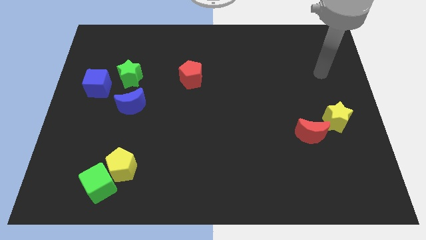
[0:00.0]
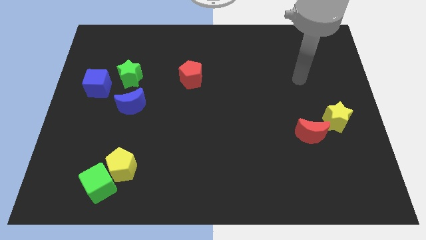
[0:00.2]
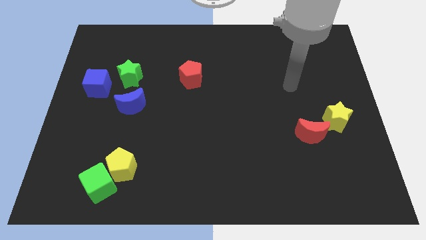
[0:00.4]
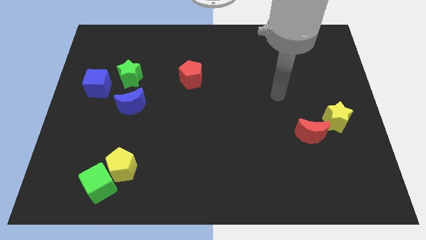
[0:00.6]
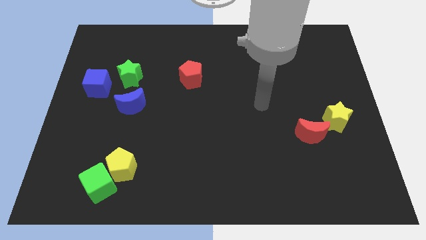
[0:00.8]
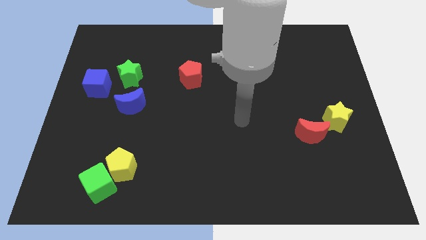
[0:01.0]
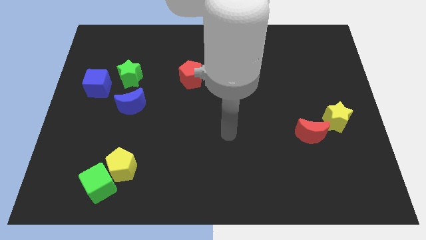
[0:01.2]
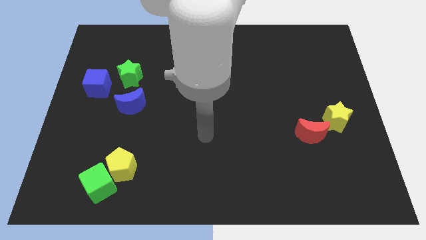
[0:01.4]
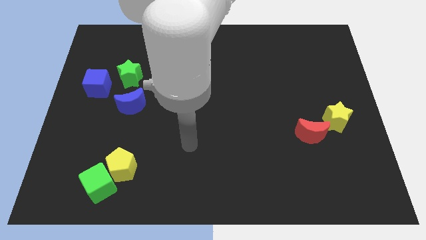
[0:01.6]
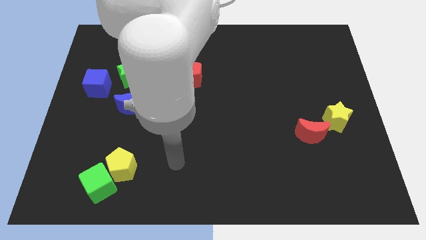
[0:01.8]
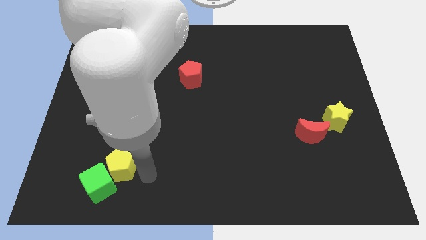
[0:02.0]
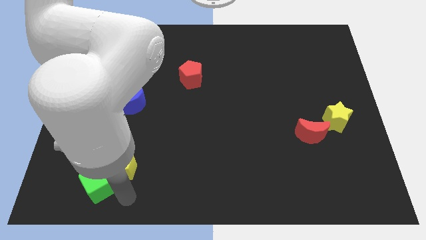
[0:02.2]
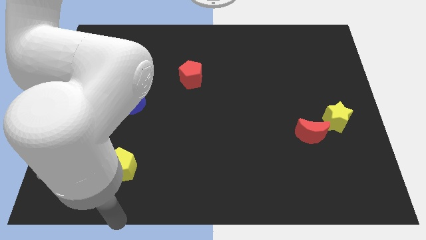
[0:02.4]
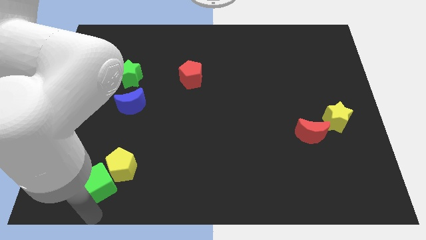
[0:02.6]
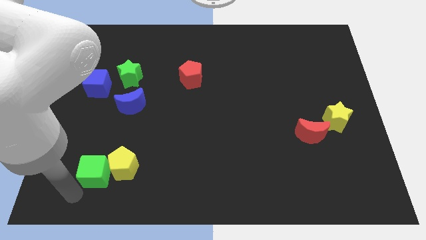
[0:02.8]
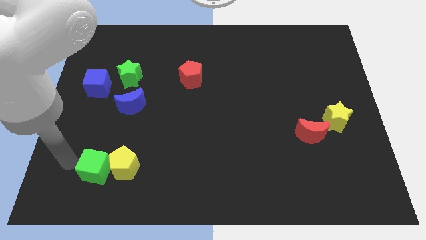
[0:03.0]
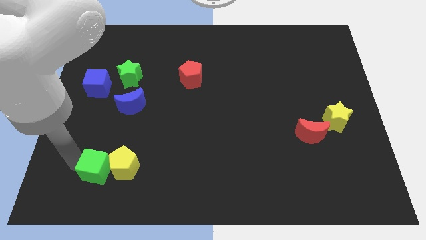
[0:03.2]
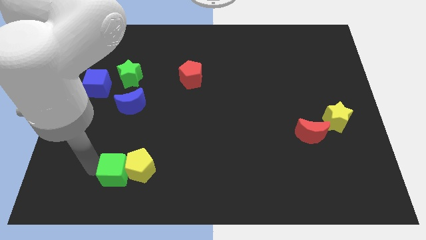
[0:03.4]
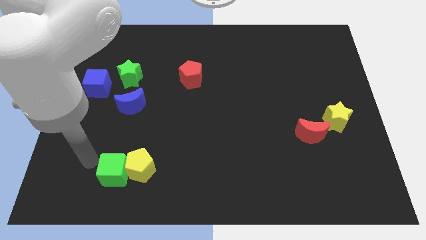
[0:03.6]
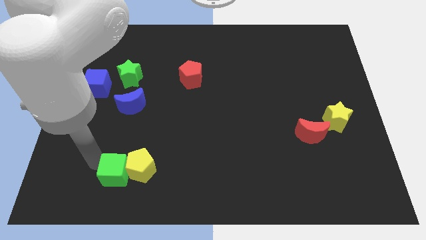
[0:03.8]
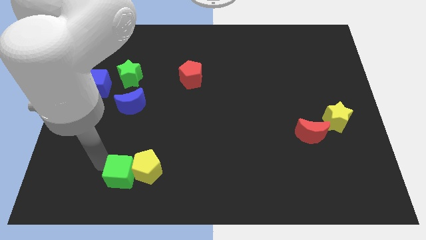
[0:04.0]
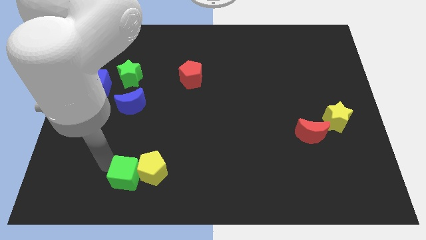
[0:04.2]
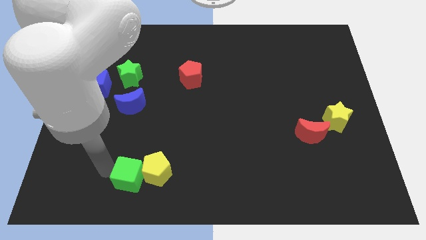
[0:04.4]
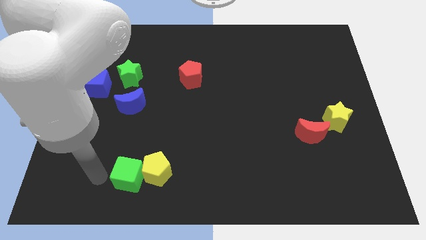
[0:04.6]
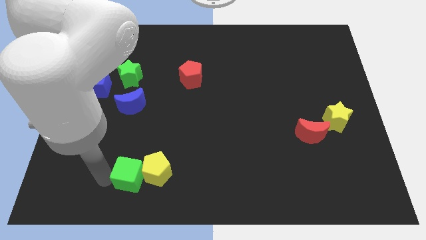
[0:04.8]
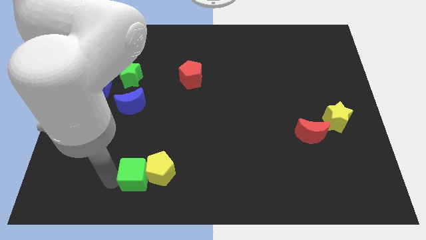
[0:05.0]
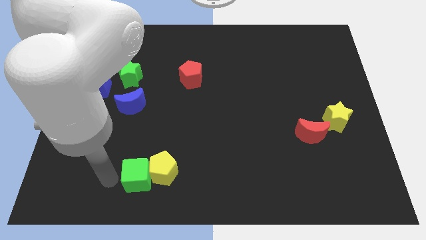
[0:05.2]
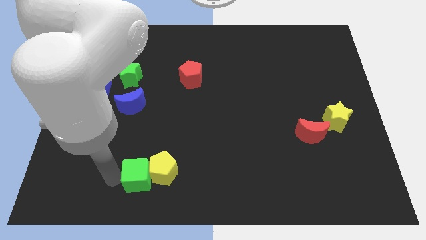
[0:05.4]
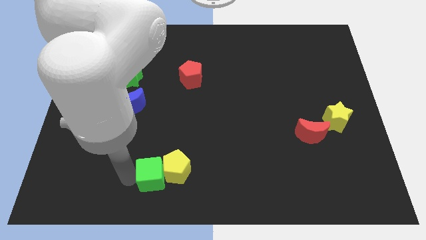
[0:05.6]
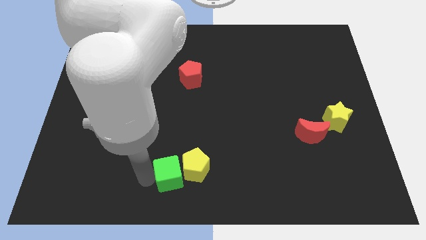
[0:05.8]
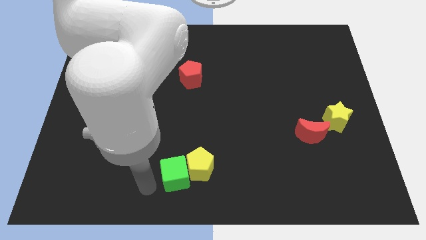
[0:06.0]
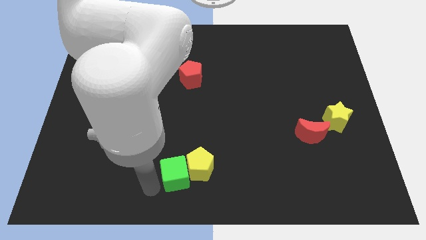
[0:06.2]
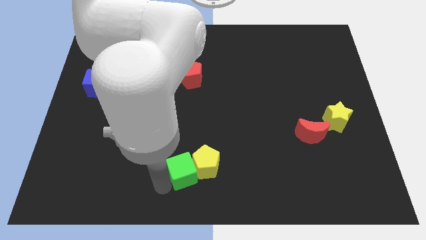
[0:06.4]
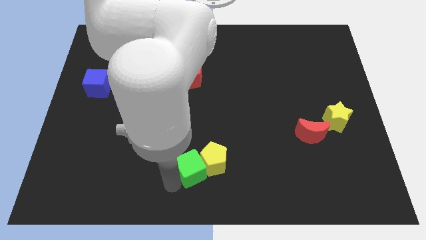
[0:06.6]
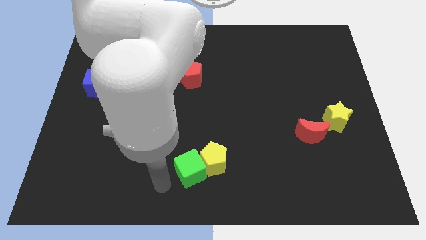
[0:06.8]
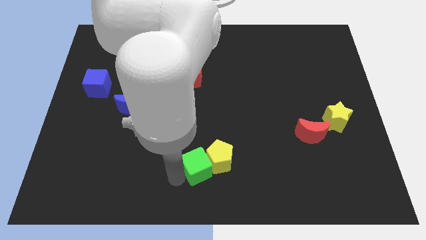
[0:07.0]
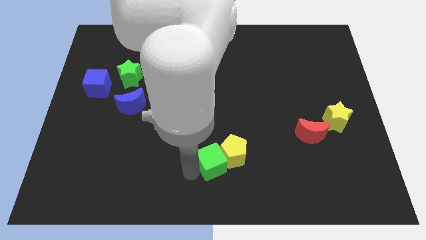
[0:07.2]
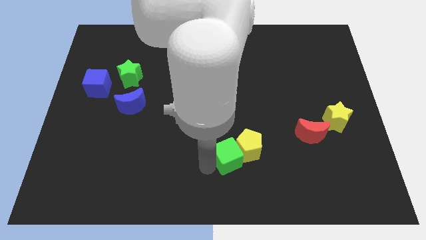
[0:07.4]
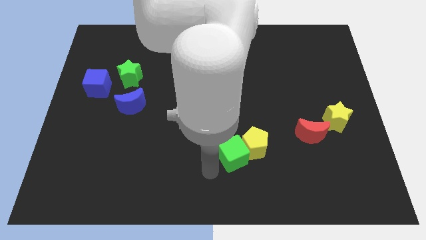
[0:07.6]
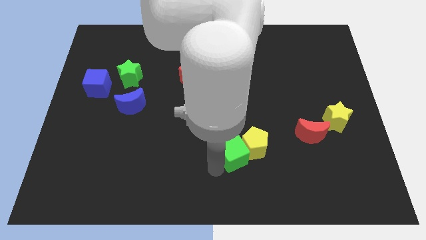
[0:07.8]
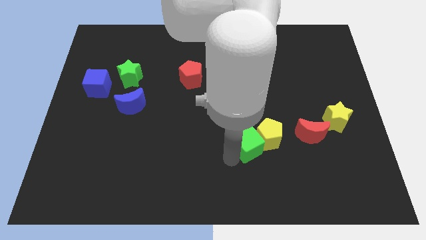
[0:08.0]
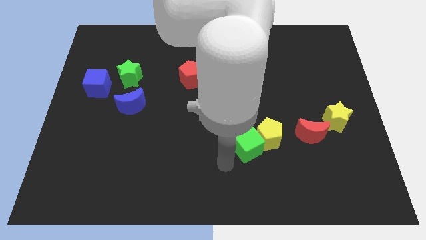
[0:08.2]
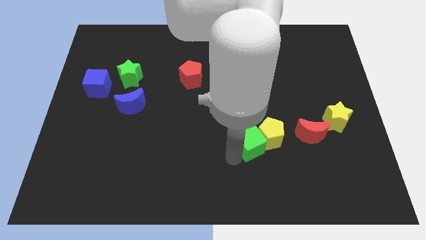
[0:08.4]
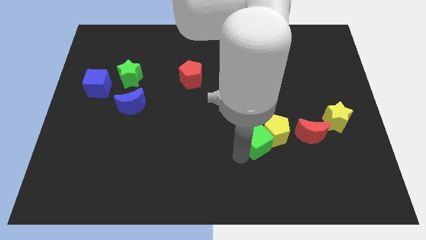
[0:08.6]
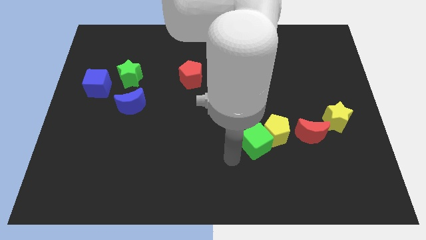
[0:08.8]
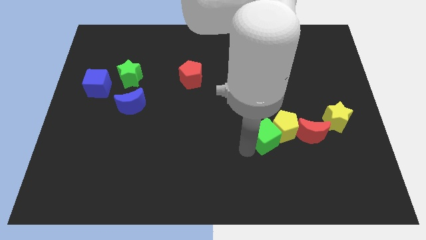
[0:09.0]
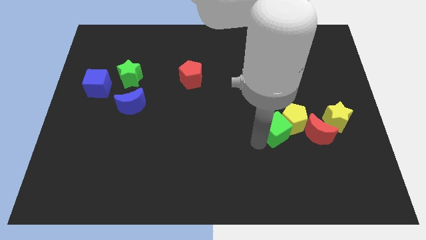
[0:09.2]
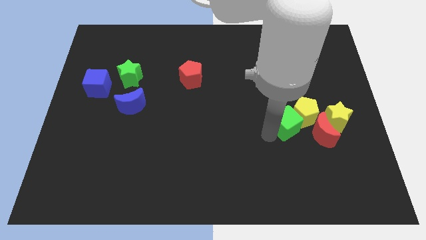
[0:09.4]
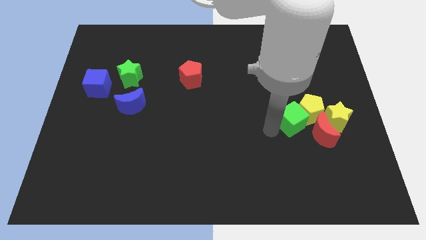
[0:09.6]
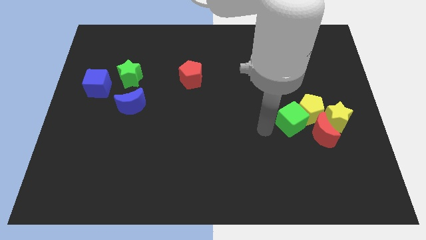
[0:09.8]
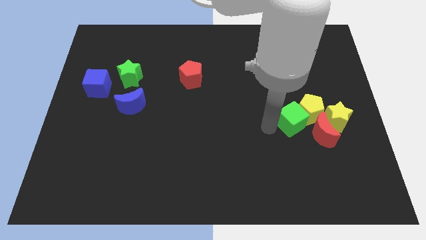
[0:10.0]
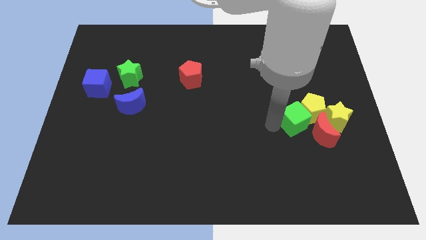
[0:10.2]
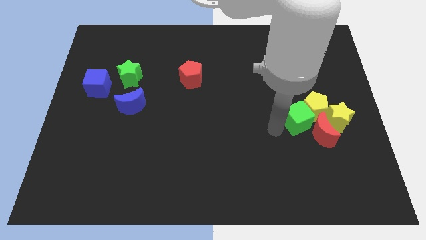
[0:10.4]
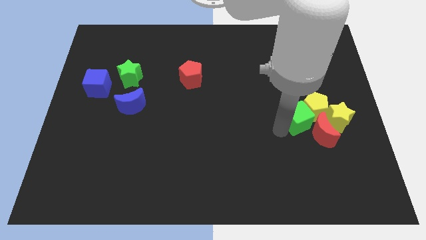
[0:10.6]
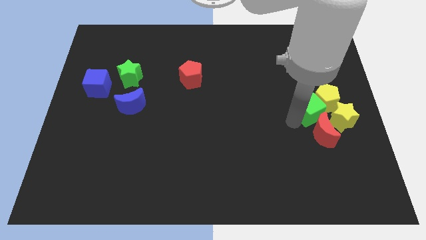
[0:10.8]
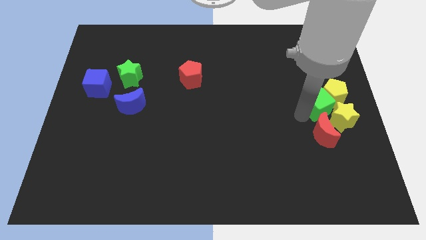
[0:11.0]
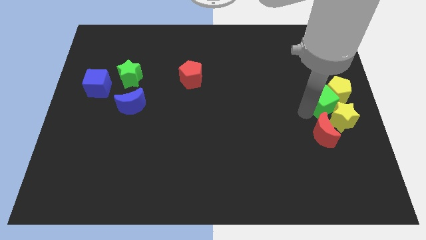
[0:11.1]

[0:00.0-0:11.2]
push the green cube diagonally up and to the right of the red moon

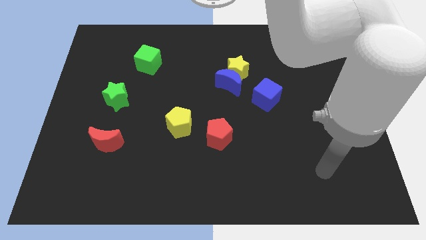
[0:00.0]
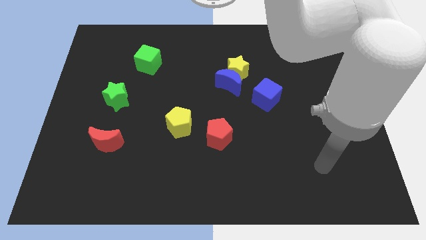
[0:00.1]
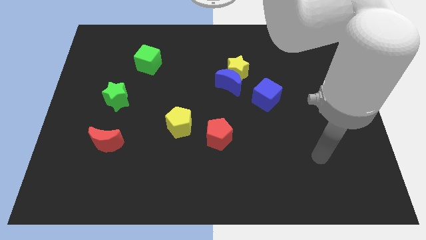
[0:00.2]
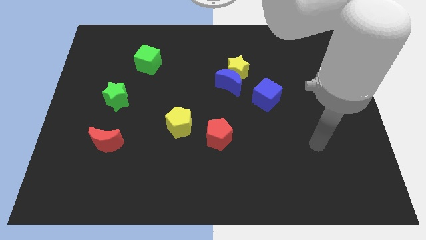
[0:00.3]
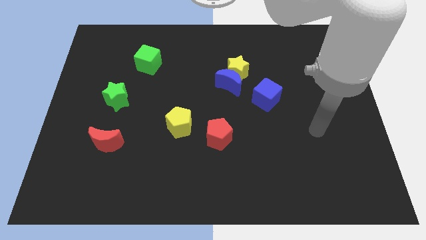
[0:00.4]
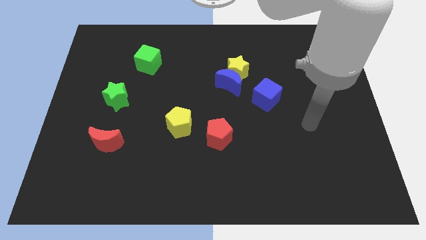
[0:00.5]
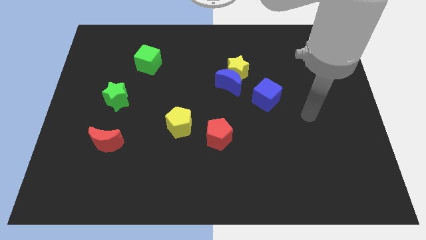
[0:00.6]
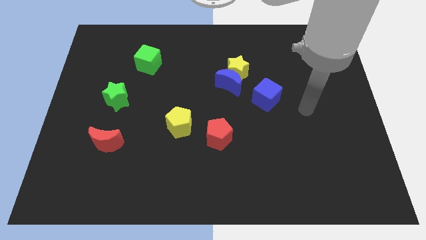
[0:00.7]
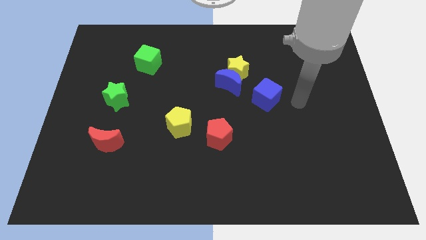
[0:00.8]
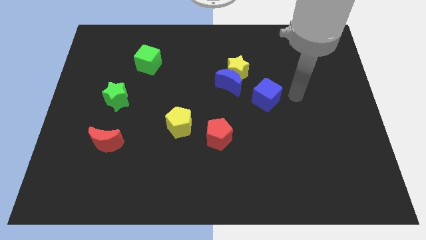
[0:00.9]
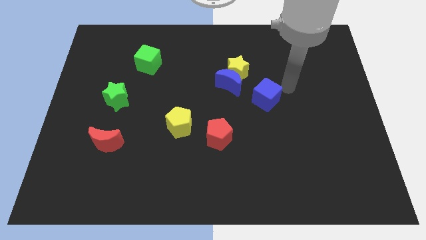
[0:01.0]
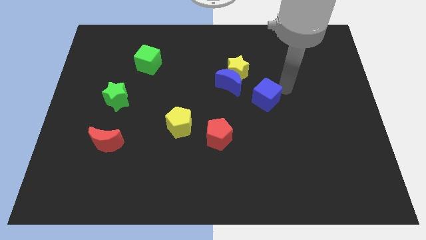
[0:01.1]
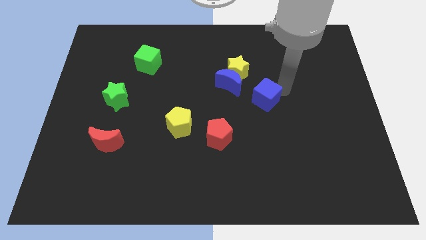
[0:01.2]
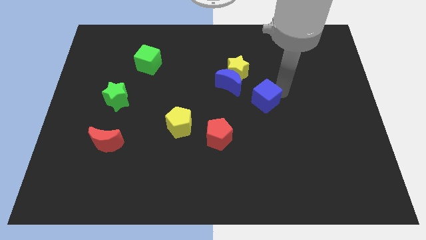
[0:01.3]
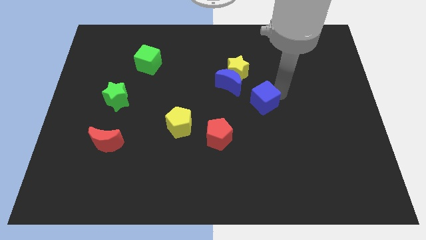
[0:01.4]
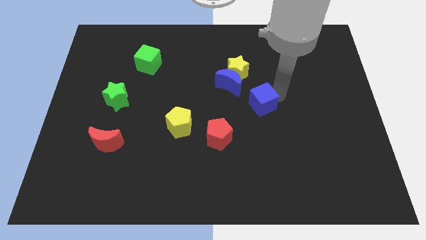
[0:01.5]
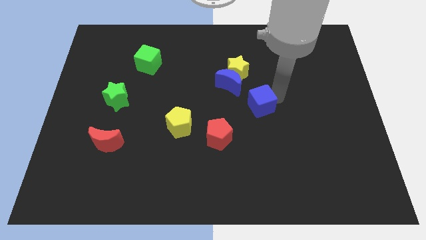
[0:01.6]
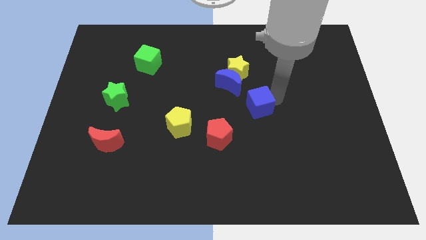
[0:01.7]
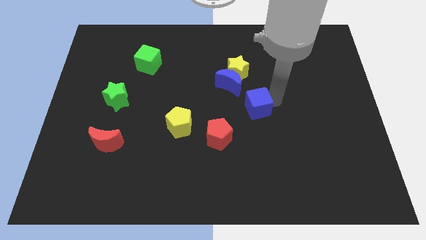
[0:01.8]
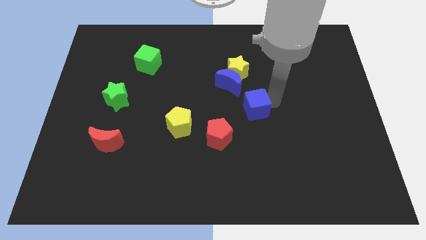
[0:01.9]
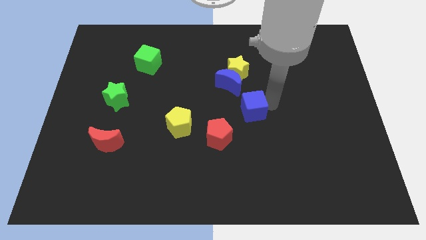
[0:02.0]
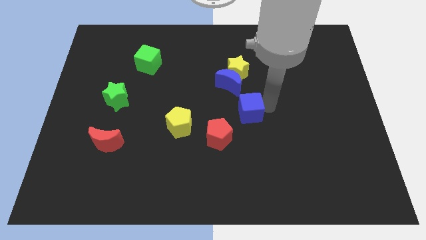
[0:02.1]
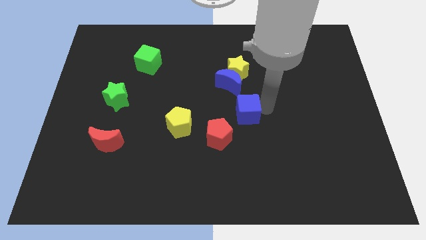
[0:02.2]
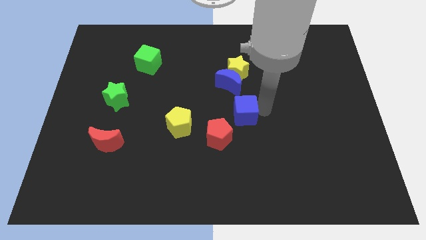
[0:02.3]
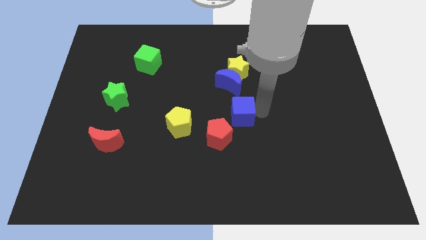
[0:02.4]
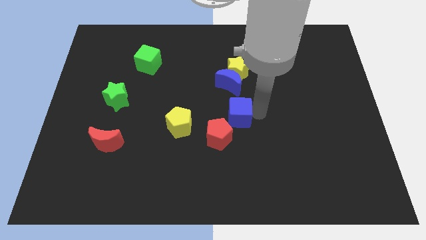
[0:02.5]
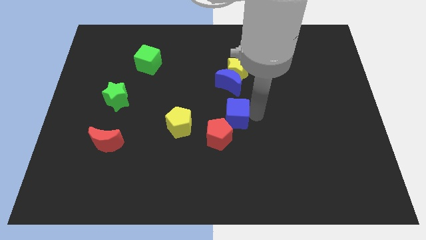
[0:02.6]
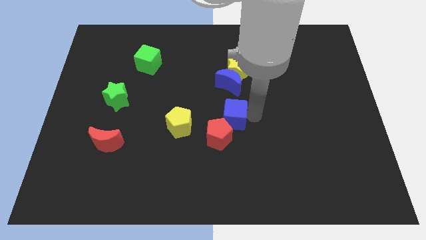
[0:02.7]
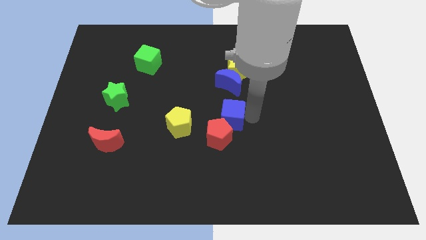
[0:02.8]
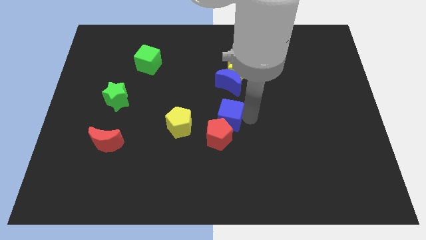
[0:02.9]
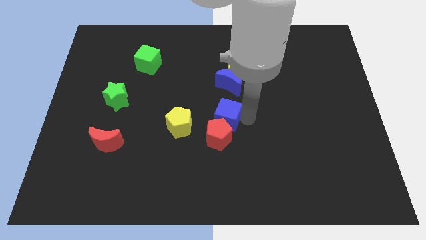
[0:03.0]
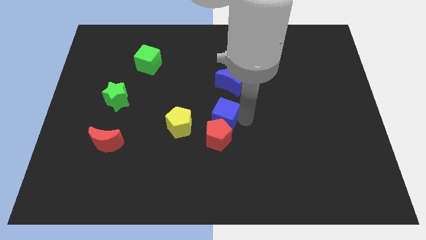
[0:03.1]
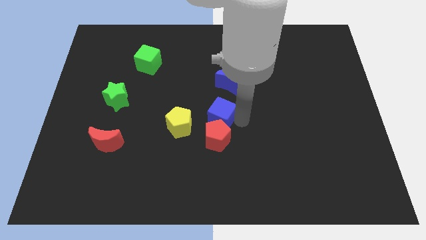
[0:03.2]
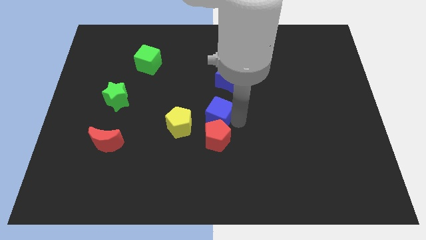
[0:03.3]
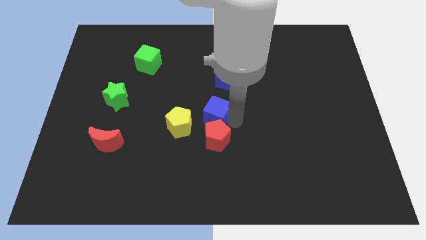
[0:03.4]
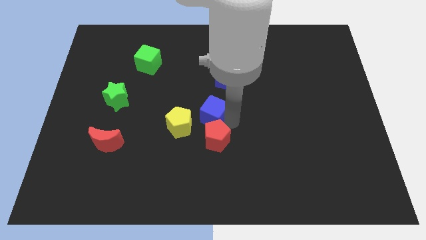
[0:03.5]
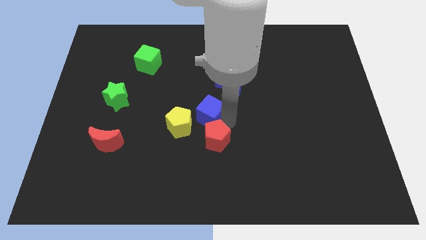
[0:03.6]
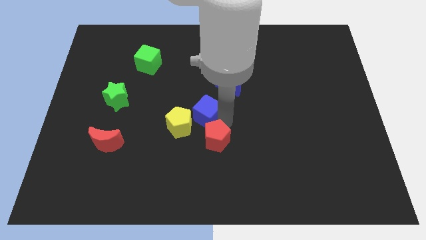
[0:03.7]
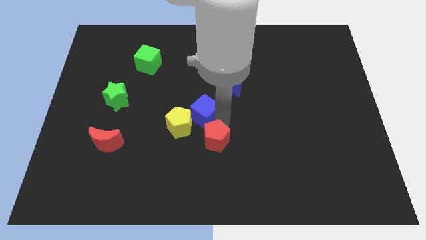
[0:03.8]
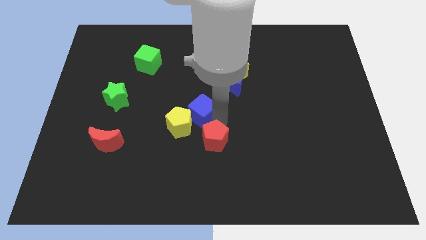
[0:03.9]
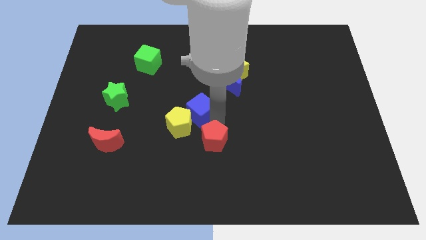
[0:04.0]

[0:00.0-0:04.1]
move the blue cube to the top of the yellow pentagon
